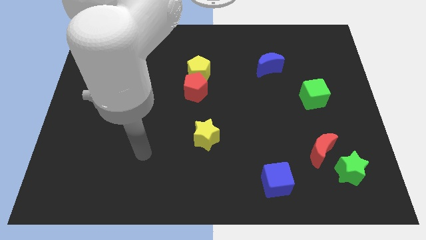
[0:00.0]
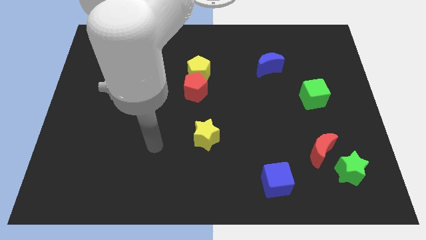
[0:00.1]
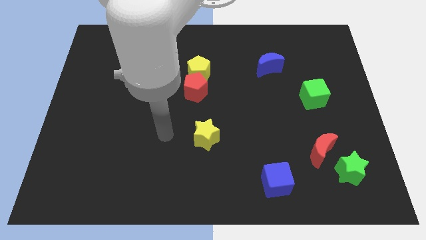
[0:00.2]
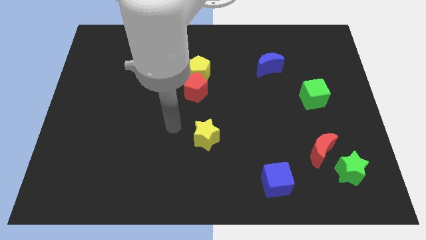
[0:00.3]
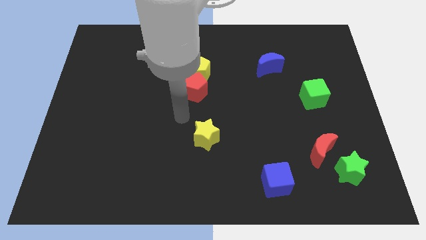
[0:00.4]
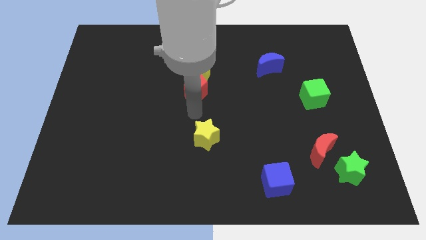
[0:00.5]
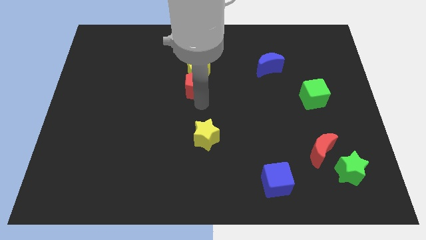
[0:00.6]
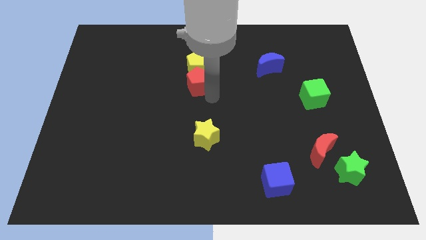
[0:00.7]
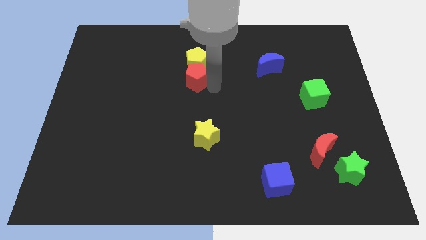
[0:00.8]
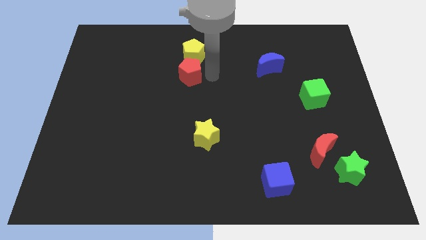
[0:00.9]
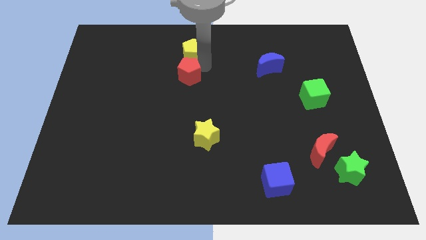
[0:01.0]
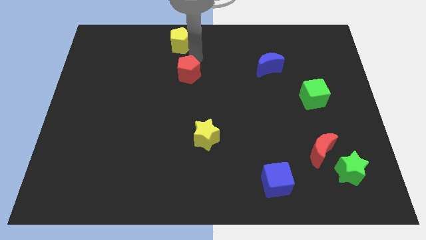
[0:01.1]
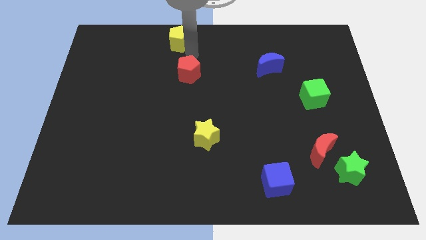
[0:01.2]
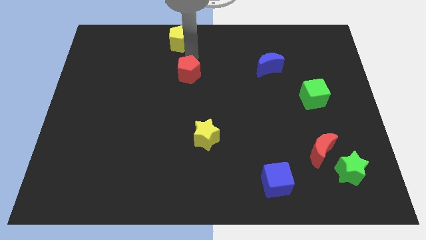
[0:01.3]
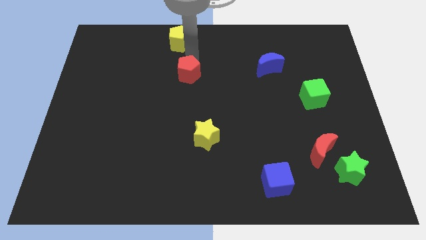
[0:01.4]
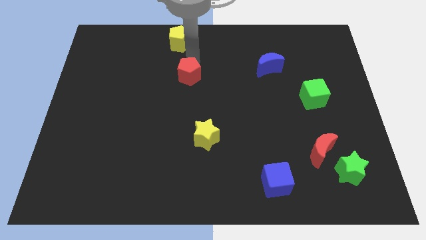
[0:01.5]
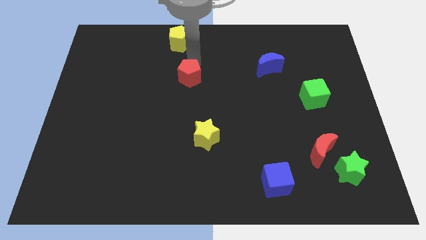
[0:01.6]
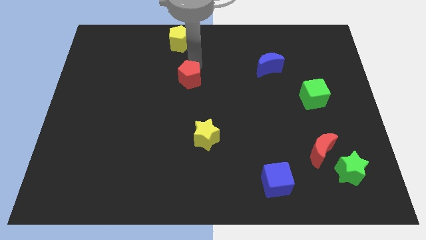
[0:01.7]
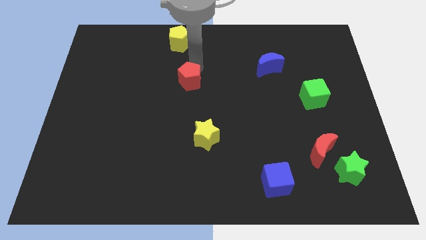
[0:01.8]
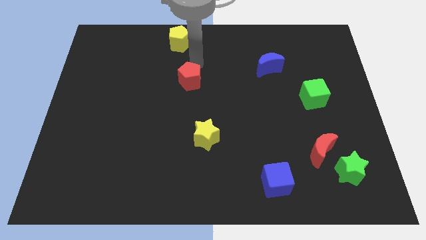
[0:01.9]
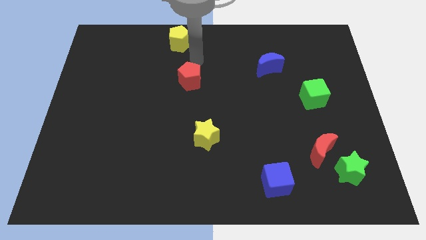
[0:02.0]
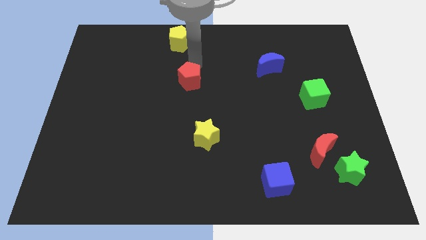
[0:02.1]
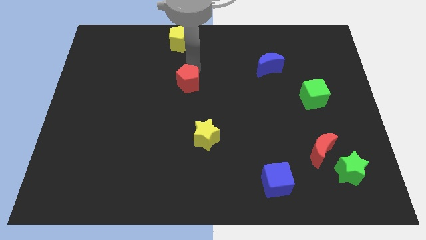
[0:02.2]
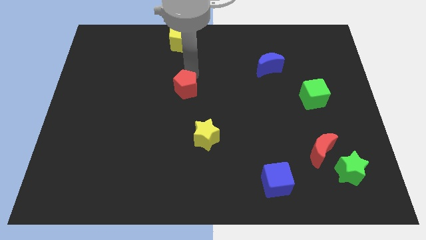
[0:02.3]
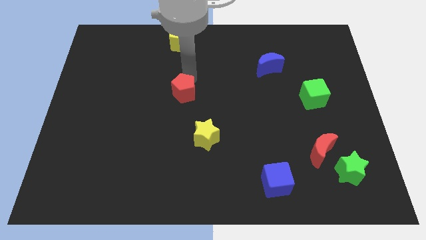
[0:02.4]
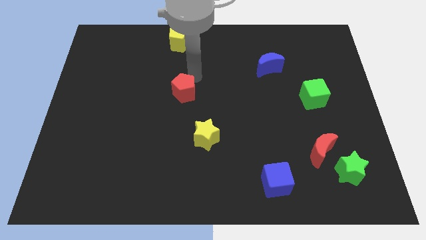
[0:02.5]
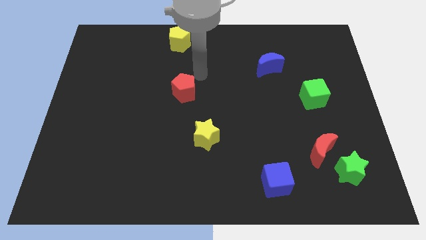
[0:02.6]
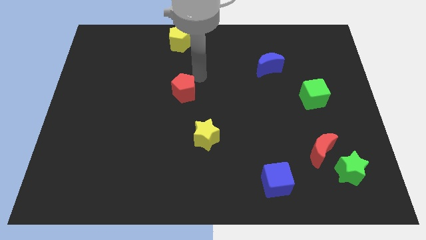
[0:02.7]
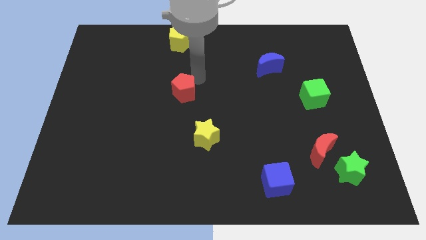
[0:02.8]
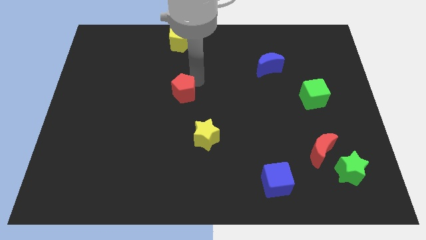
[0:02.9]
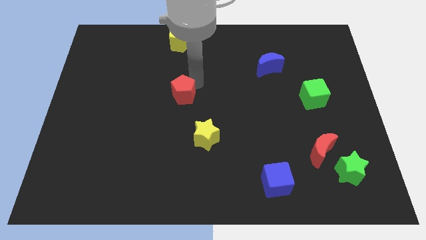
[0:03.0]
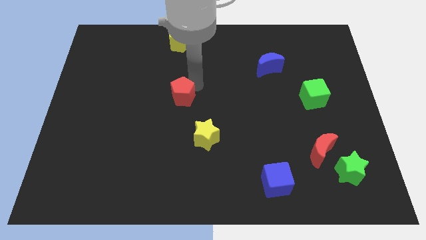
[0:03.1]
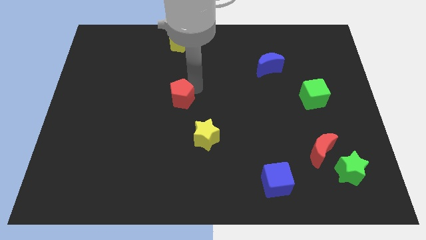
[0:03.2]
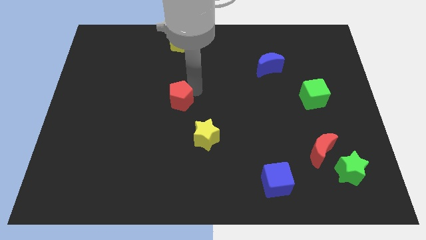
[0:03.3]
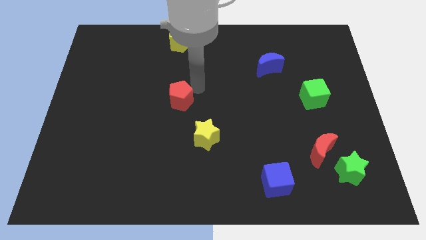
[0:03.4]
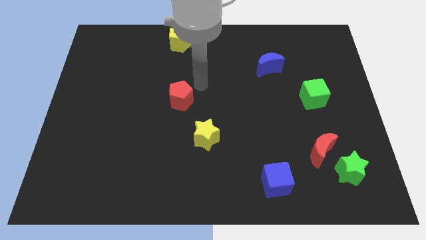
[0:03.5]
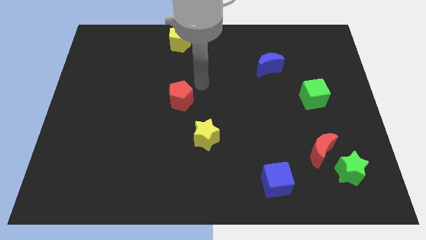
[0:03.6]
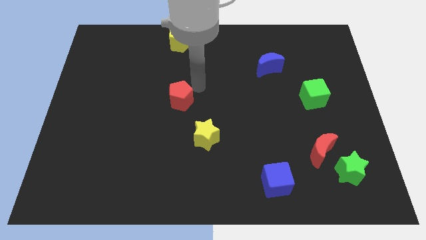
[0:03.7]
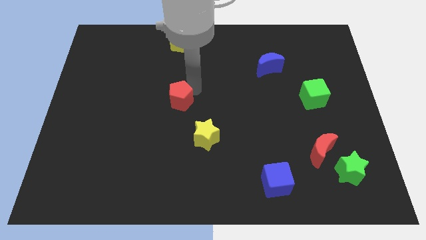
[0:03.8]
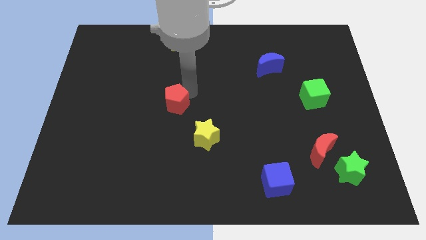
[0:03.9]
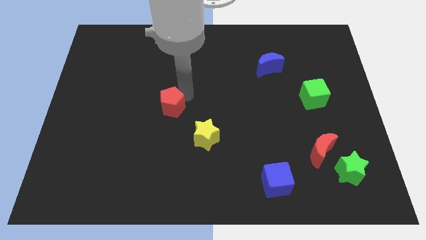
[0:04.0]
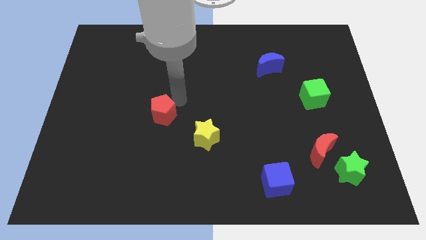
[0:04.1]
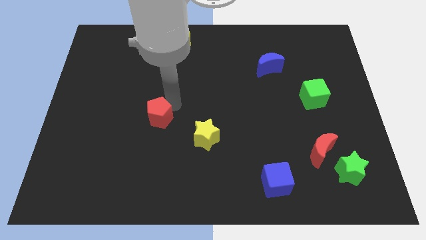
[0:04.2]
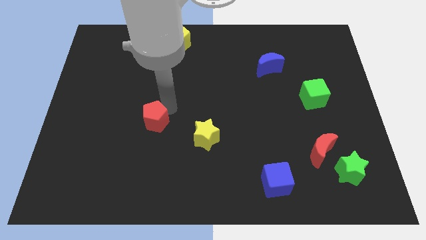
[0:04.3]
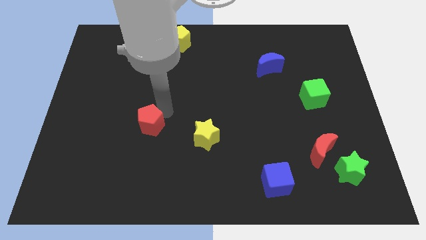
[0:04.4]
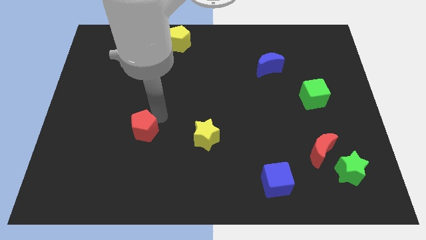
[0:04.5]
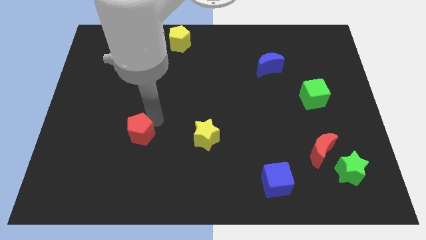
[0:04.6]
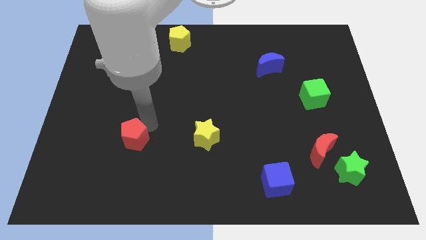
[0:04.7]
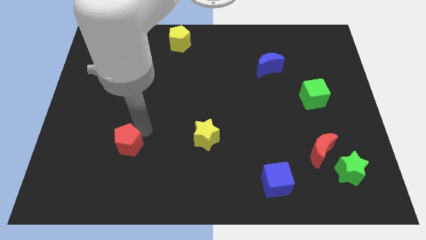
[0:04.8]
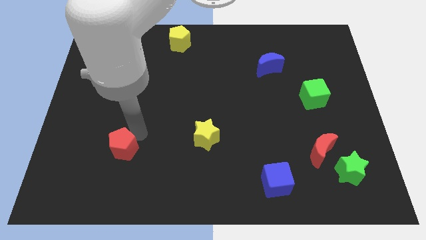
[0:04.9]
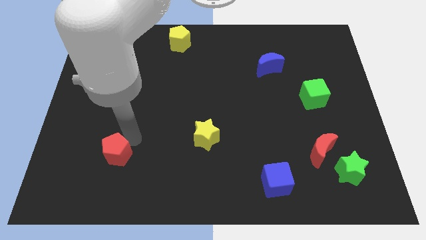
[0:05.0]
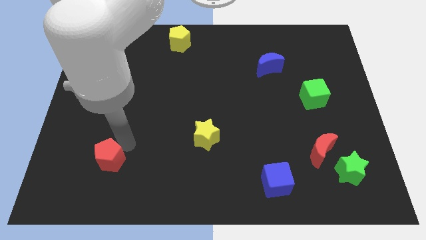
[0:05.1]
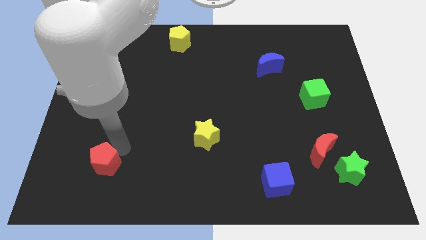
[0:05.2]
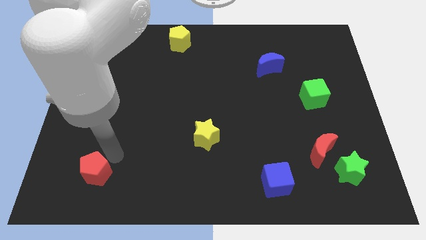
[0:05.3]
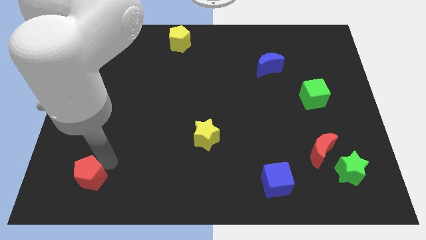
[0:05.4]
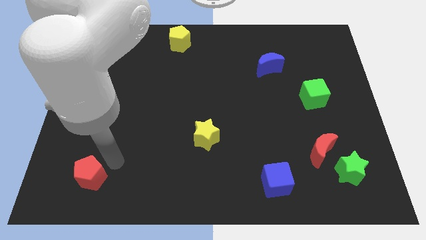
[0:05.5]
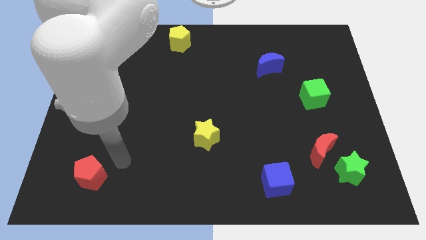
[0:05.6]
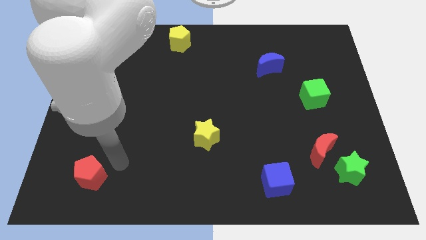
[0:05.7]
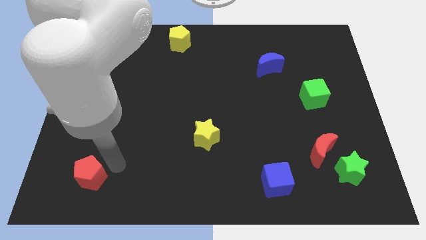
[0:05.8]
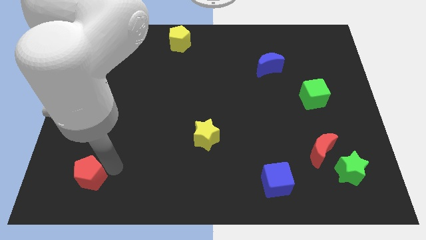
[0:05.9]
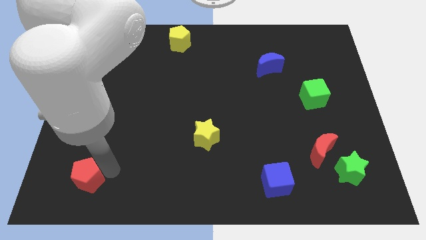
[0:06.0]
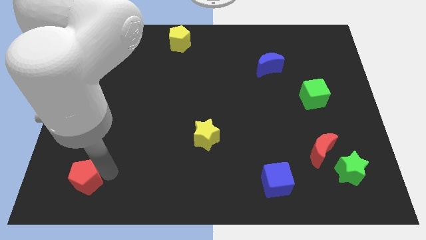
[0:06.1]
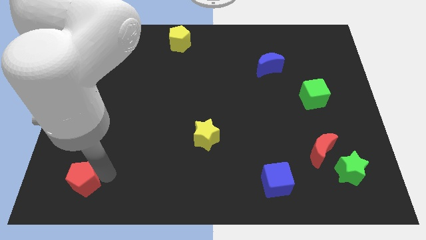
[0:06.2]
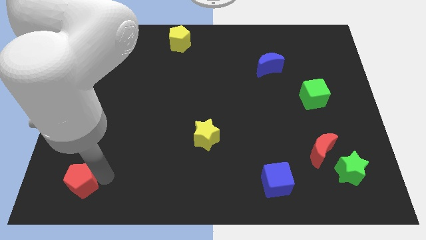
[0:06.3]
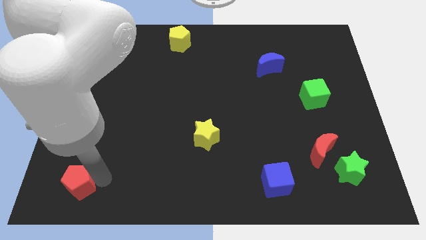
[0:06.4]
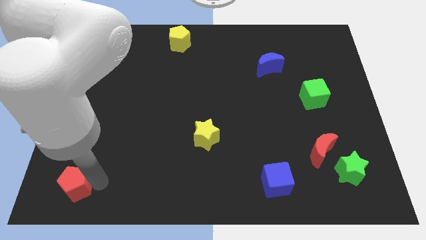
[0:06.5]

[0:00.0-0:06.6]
push the red pentagon to the lower left corner
